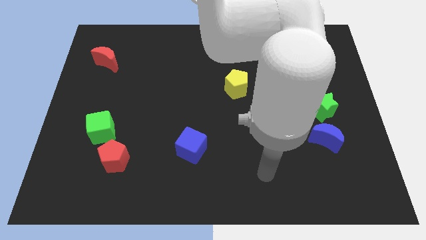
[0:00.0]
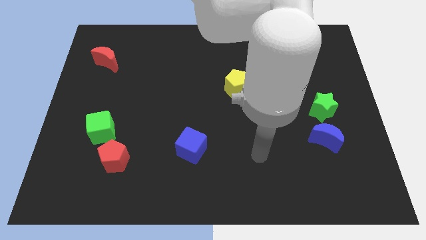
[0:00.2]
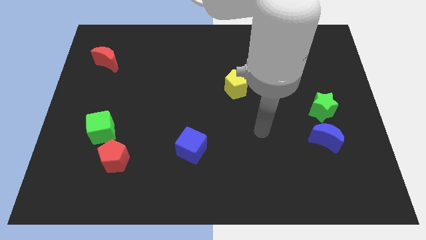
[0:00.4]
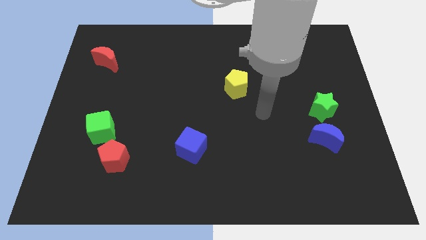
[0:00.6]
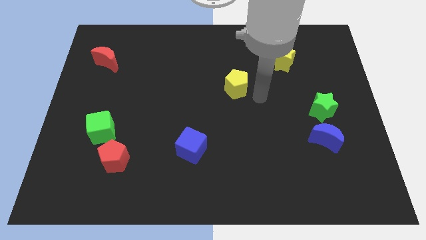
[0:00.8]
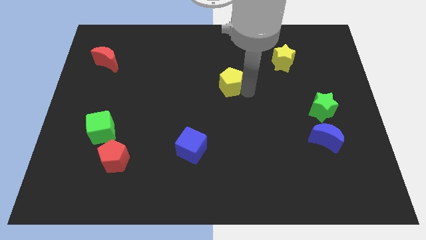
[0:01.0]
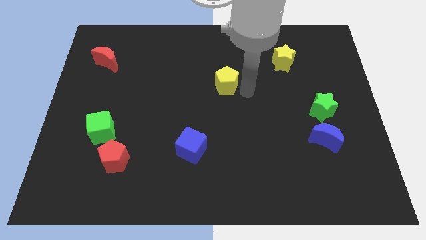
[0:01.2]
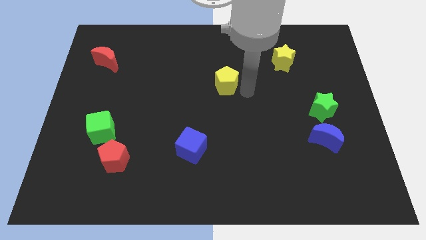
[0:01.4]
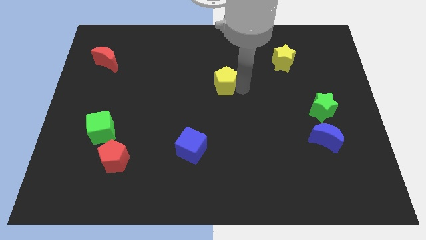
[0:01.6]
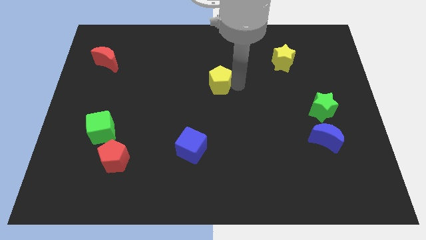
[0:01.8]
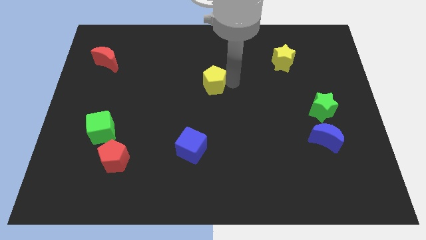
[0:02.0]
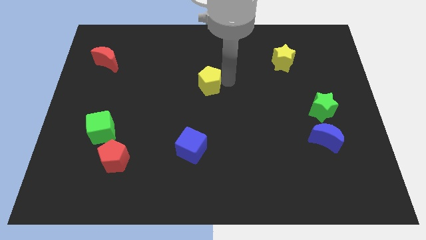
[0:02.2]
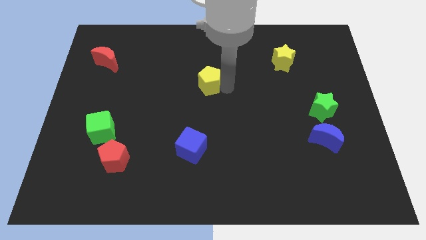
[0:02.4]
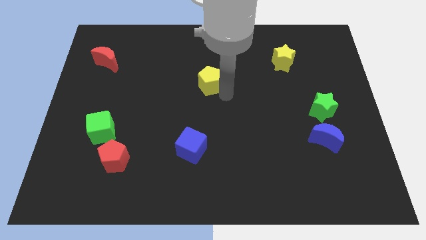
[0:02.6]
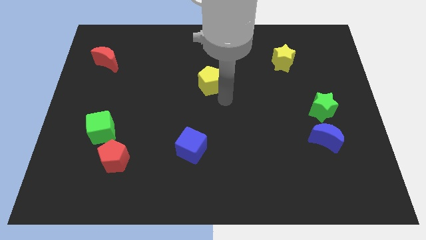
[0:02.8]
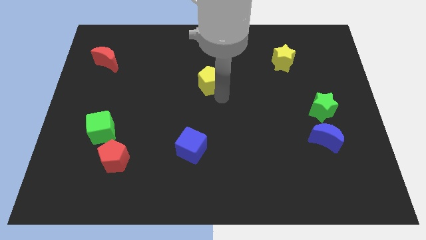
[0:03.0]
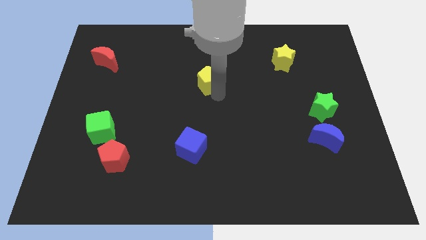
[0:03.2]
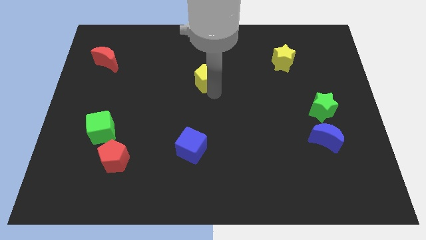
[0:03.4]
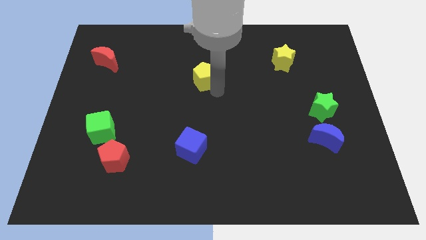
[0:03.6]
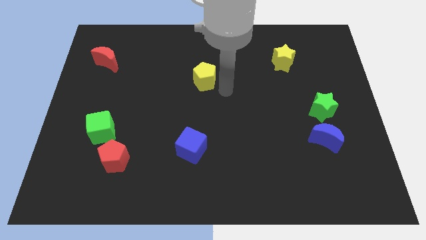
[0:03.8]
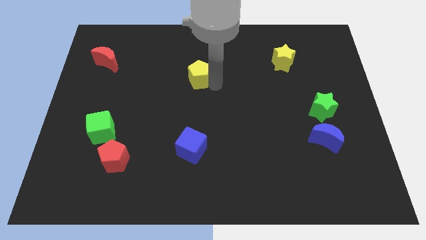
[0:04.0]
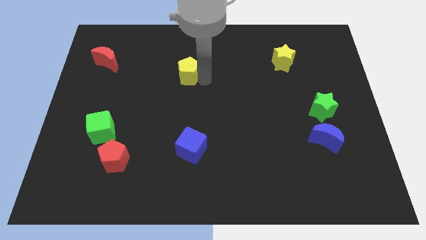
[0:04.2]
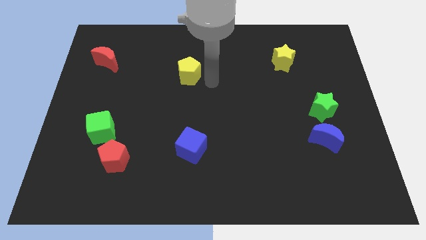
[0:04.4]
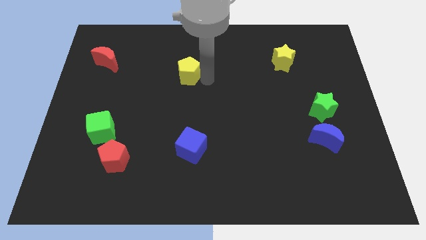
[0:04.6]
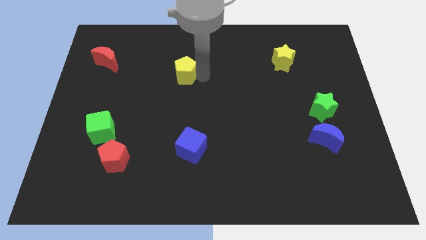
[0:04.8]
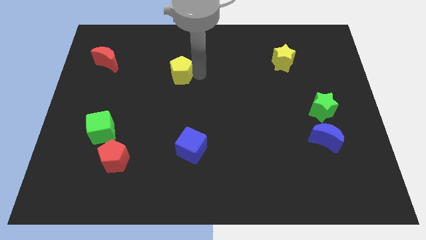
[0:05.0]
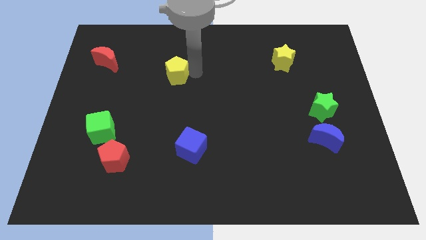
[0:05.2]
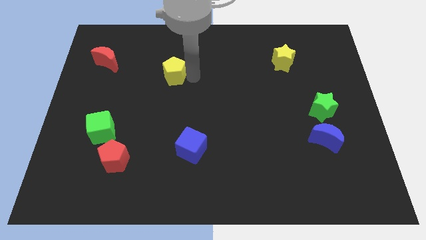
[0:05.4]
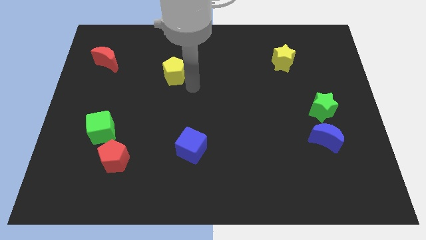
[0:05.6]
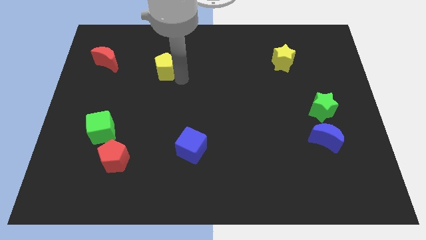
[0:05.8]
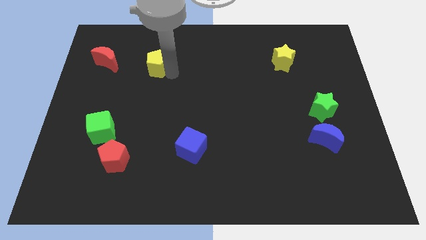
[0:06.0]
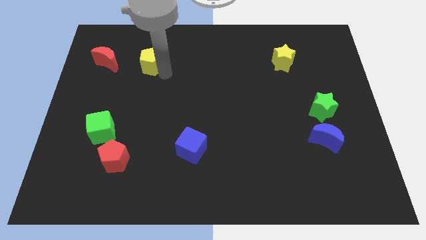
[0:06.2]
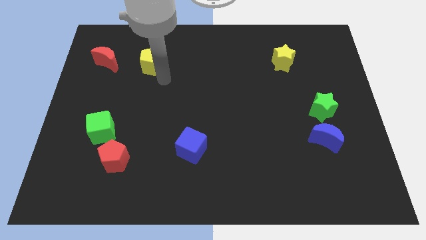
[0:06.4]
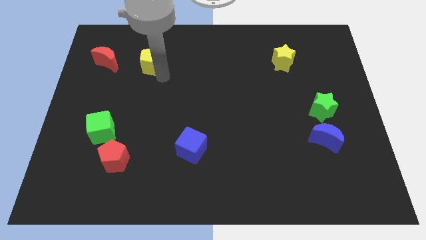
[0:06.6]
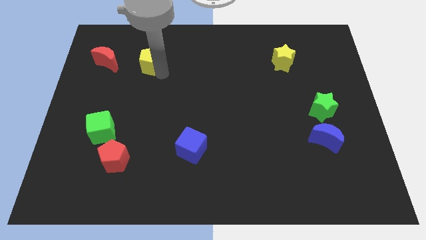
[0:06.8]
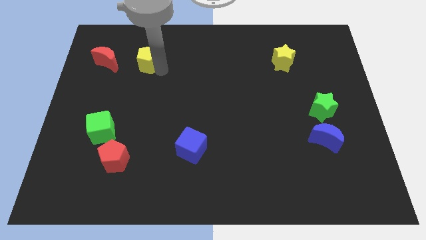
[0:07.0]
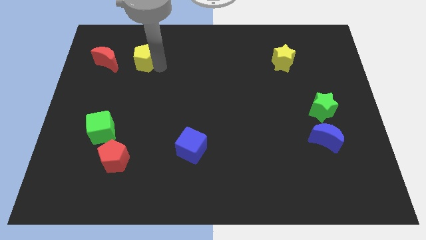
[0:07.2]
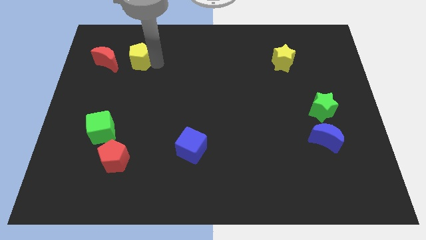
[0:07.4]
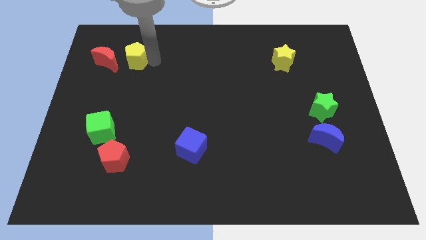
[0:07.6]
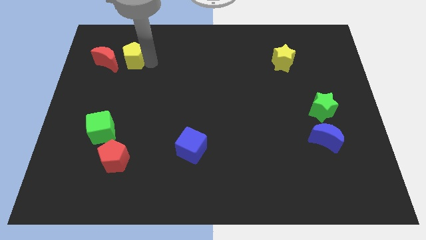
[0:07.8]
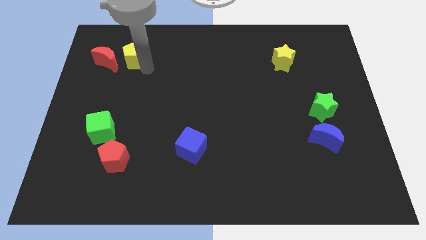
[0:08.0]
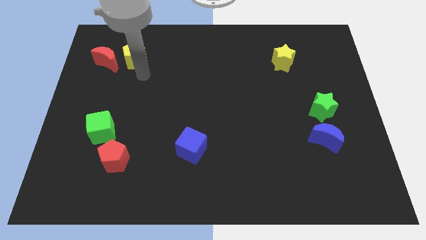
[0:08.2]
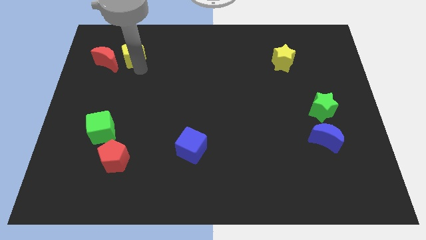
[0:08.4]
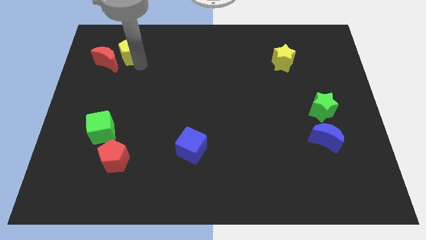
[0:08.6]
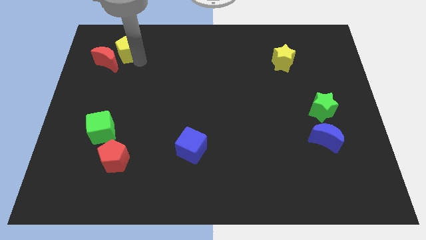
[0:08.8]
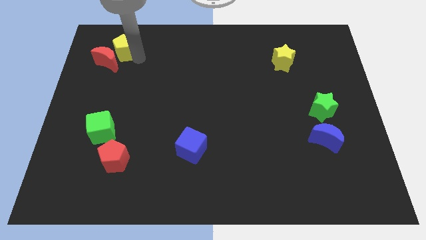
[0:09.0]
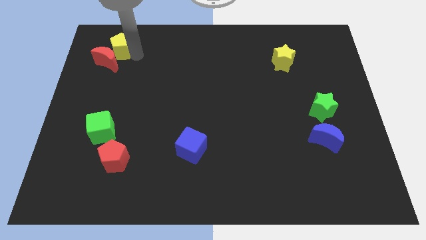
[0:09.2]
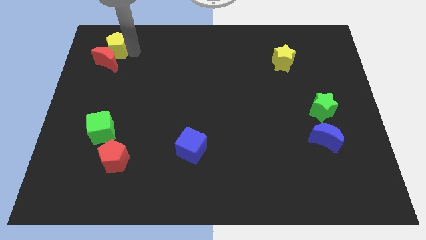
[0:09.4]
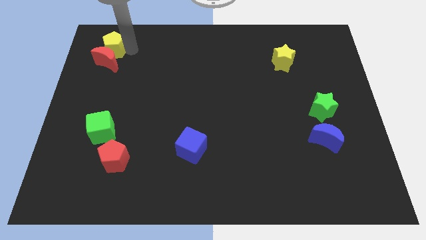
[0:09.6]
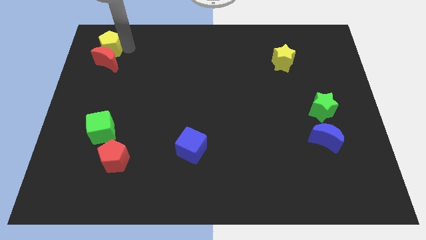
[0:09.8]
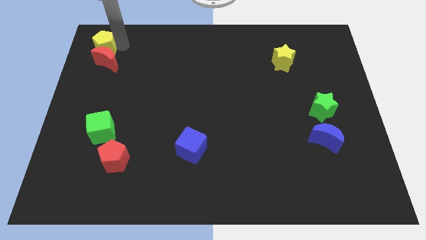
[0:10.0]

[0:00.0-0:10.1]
put the yellow pentagon to the upper left corner

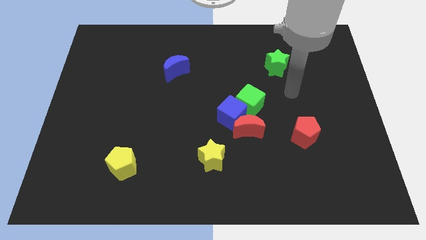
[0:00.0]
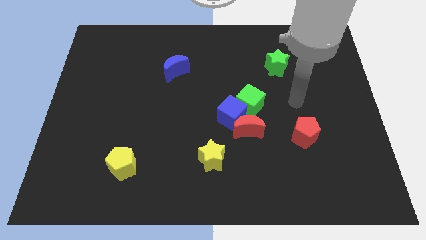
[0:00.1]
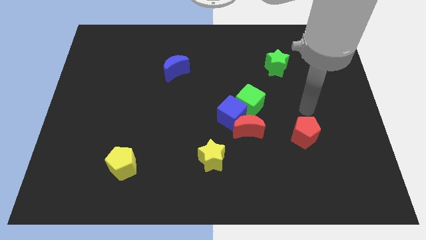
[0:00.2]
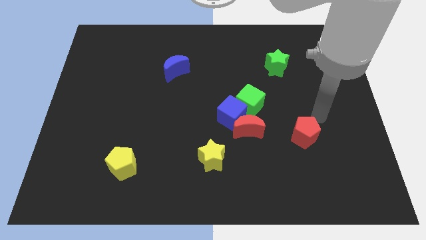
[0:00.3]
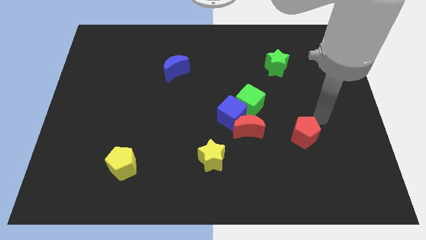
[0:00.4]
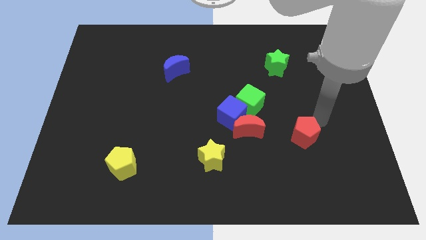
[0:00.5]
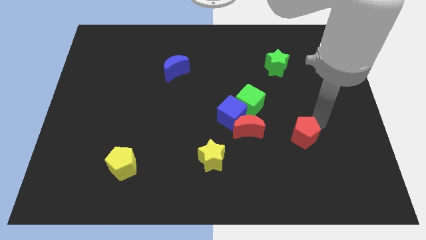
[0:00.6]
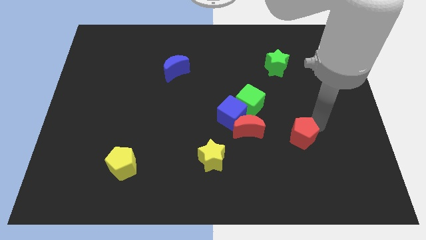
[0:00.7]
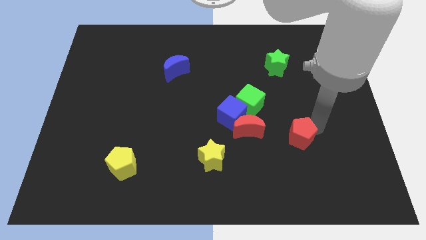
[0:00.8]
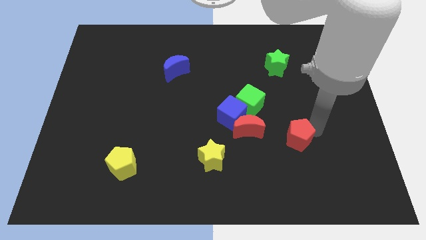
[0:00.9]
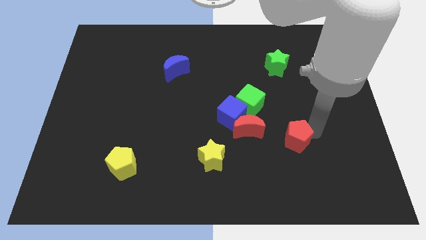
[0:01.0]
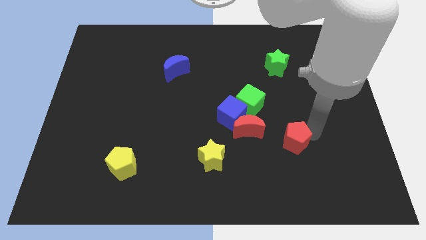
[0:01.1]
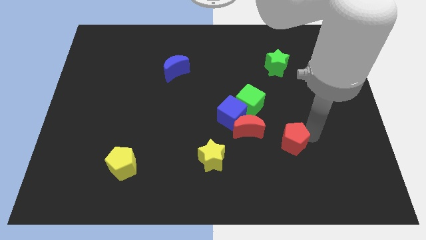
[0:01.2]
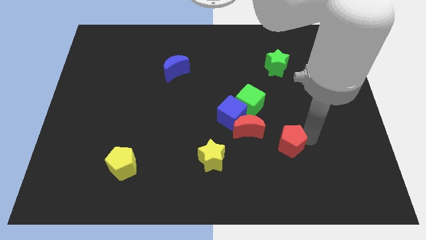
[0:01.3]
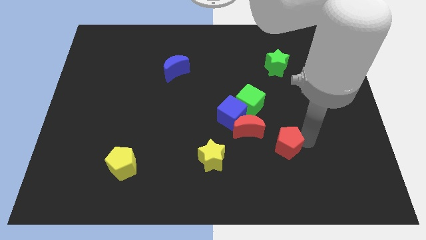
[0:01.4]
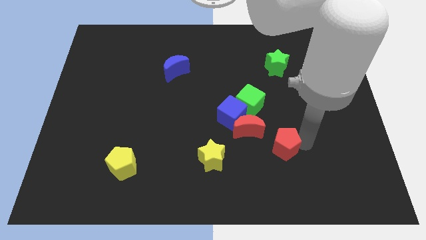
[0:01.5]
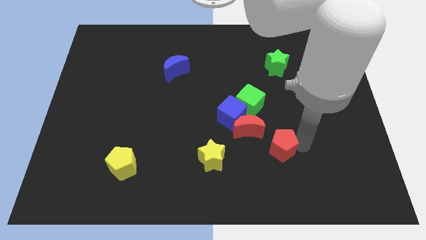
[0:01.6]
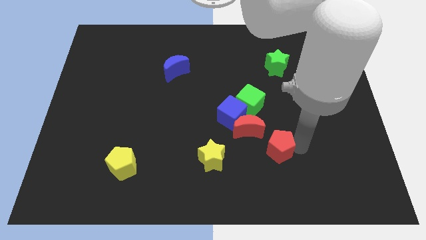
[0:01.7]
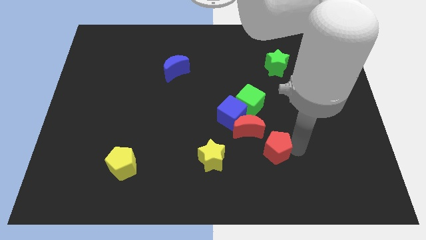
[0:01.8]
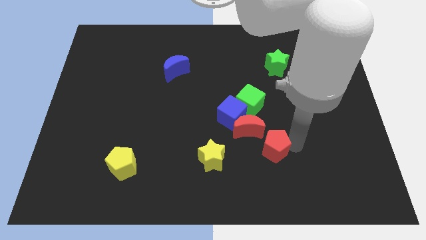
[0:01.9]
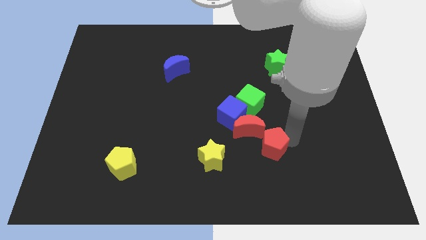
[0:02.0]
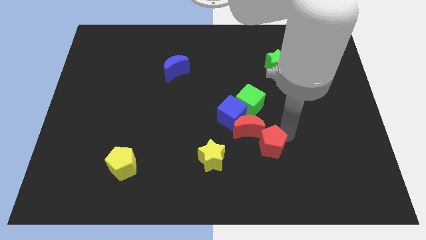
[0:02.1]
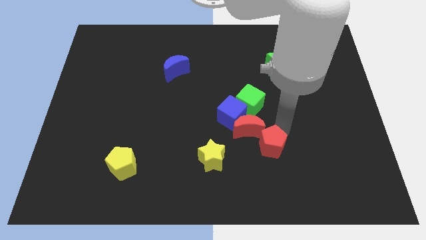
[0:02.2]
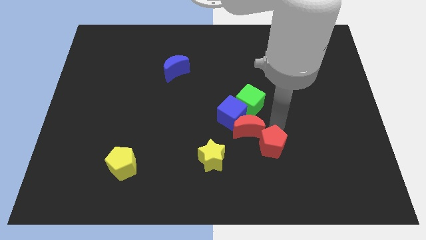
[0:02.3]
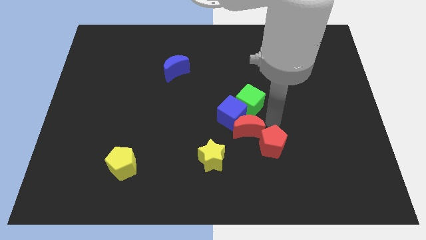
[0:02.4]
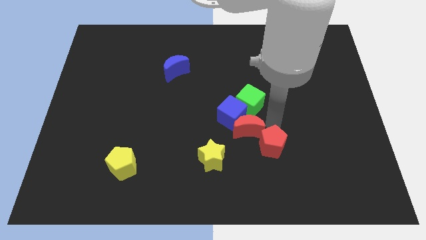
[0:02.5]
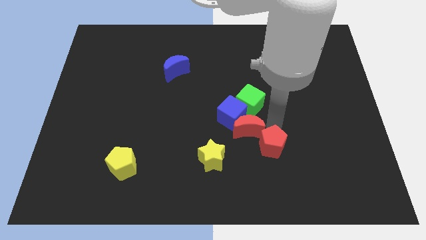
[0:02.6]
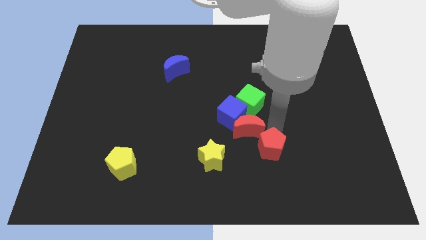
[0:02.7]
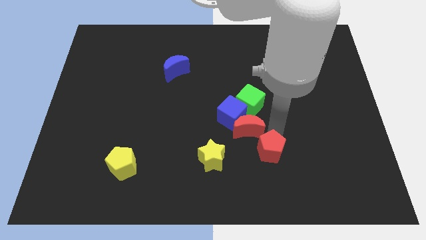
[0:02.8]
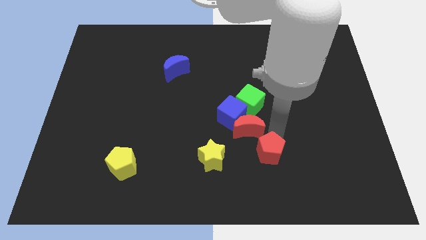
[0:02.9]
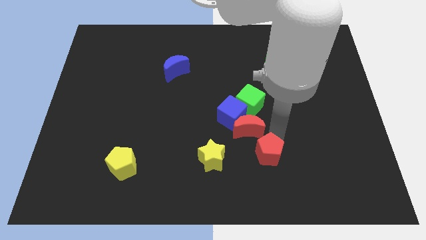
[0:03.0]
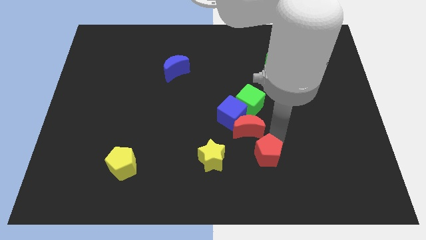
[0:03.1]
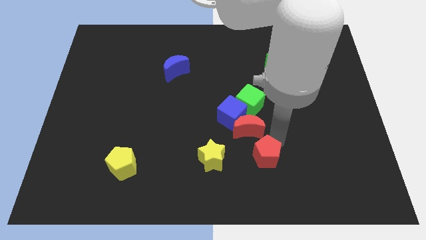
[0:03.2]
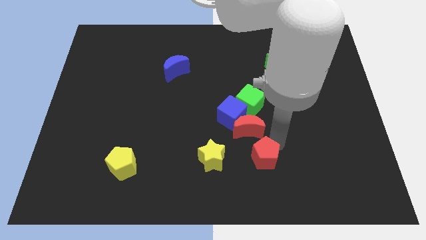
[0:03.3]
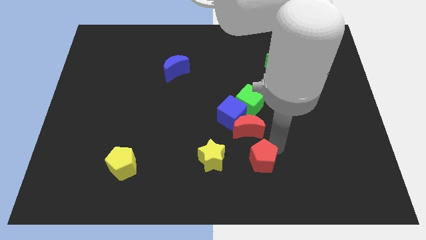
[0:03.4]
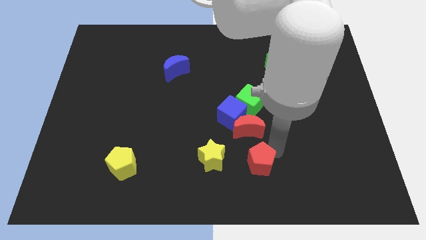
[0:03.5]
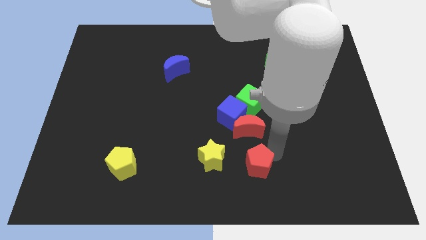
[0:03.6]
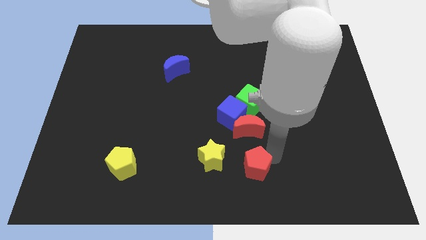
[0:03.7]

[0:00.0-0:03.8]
put the red pentagon to the bottom
